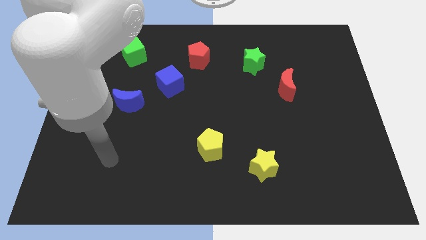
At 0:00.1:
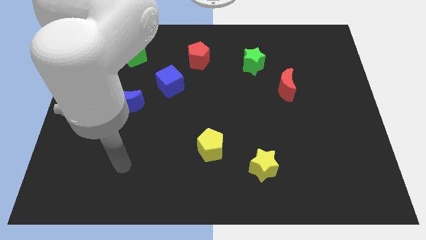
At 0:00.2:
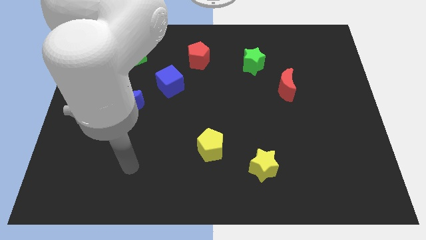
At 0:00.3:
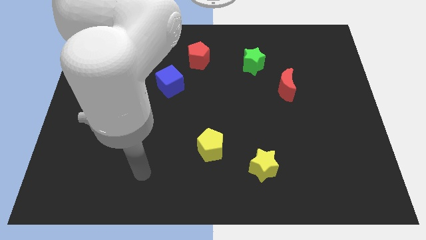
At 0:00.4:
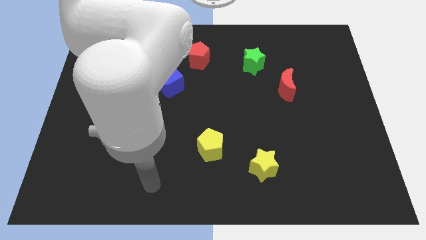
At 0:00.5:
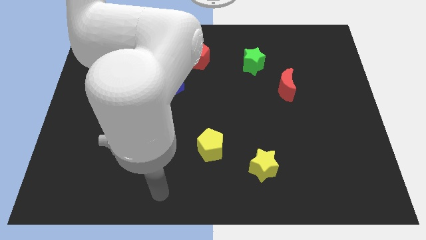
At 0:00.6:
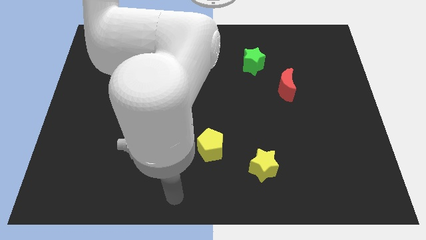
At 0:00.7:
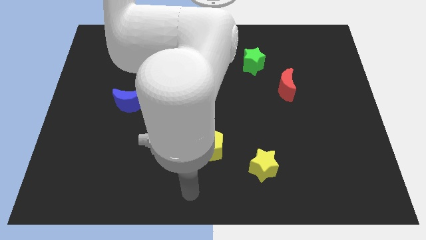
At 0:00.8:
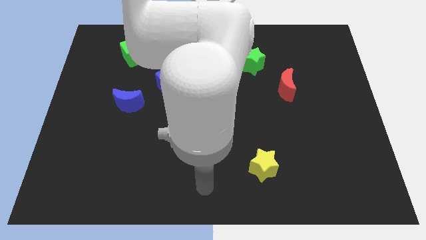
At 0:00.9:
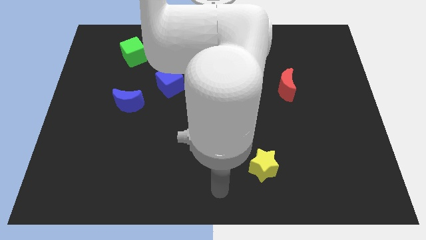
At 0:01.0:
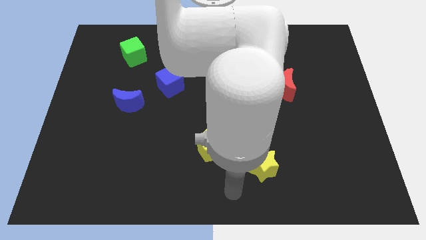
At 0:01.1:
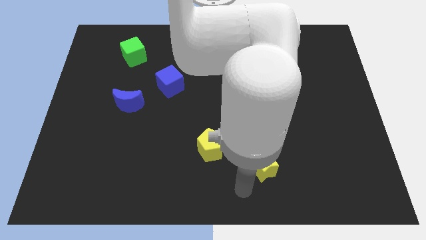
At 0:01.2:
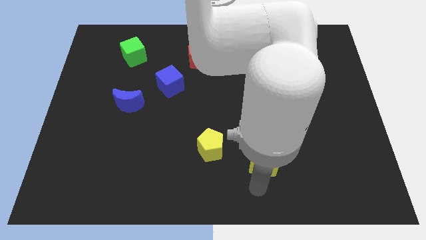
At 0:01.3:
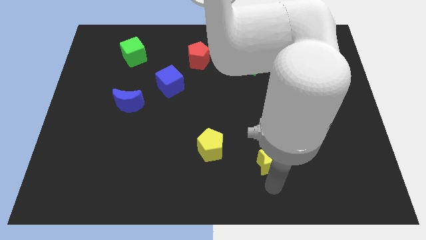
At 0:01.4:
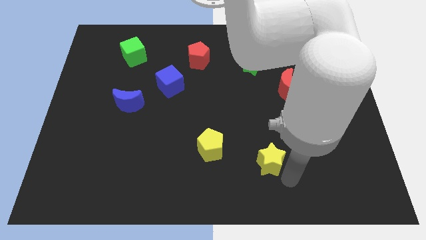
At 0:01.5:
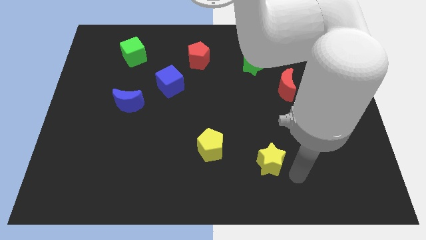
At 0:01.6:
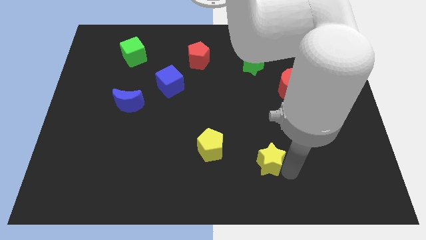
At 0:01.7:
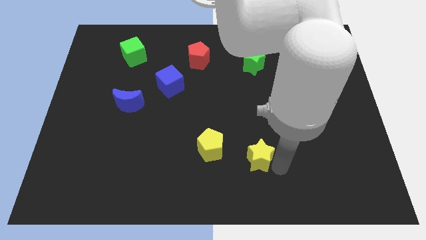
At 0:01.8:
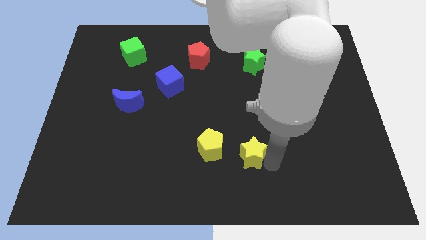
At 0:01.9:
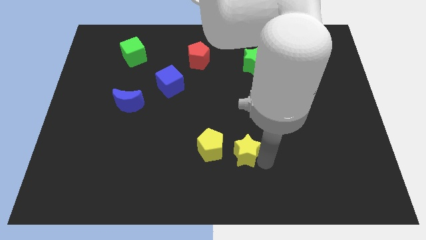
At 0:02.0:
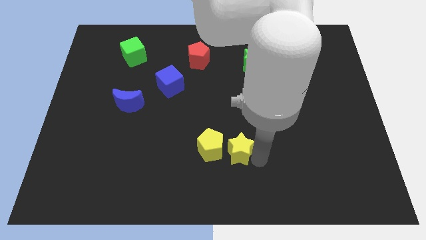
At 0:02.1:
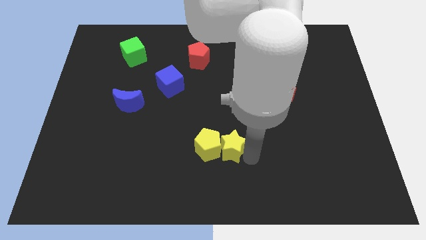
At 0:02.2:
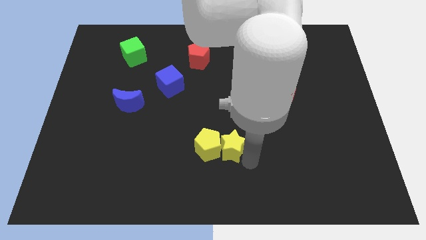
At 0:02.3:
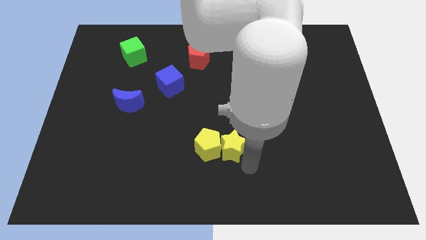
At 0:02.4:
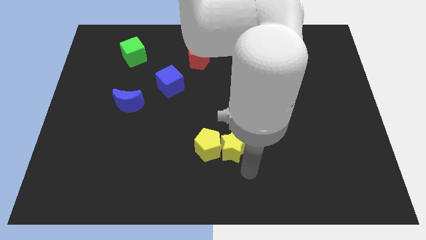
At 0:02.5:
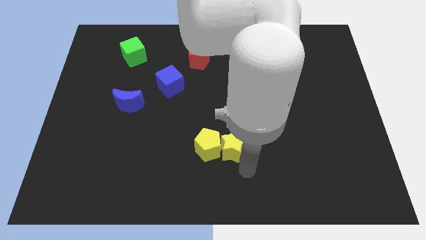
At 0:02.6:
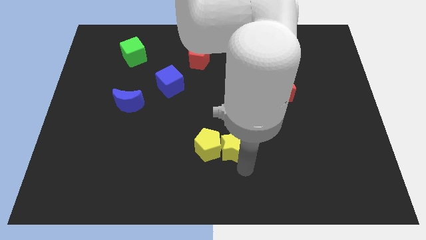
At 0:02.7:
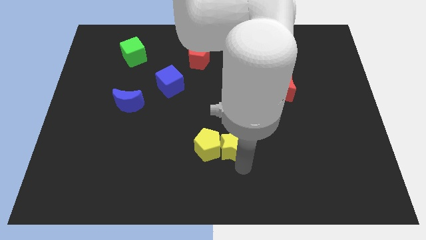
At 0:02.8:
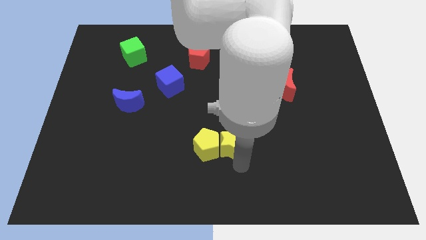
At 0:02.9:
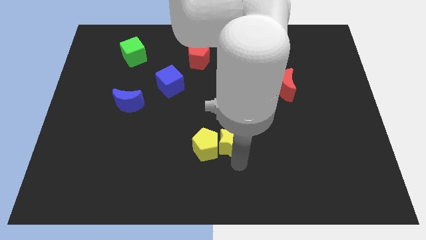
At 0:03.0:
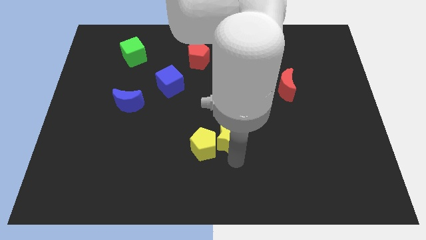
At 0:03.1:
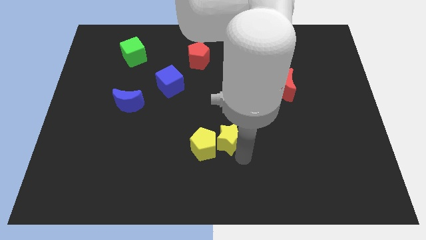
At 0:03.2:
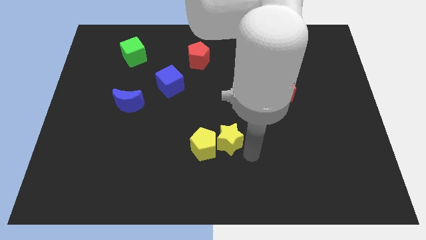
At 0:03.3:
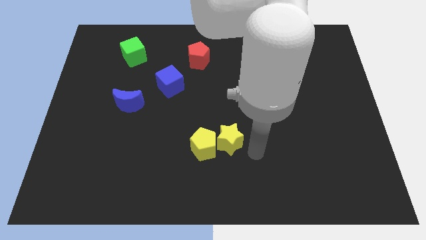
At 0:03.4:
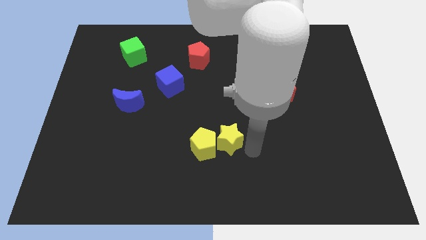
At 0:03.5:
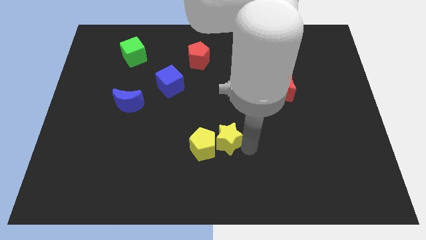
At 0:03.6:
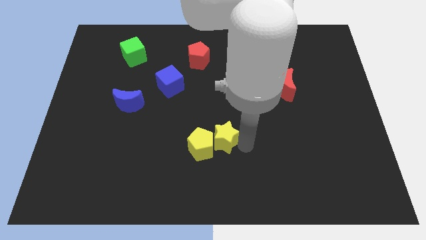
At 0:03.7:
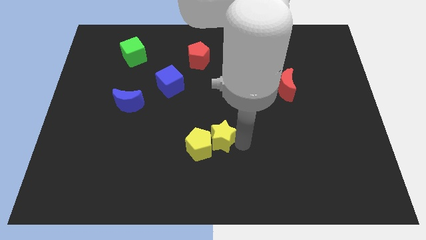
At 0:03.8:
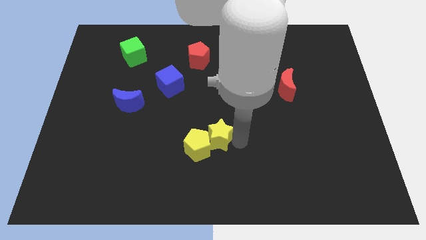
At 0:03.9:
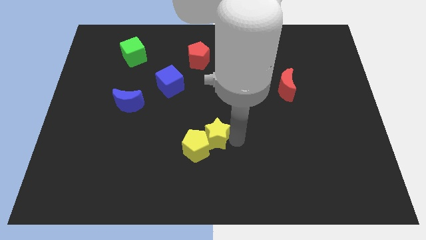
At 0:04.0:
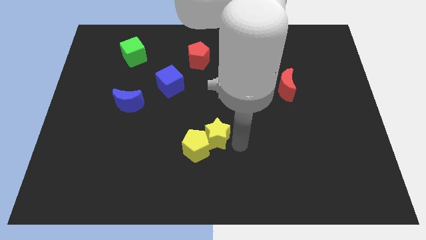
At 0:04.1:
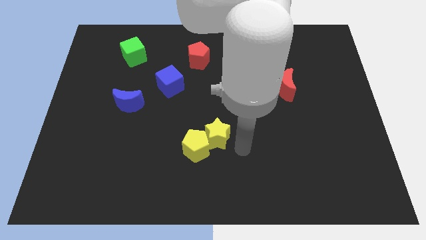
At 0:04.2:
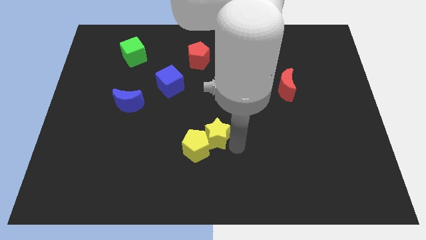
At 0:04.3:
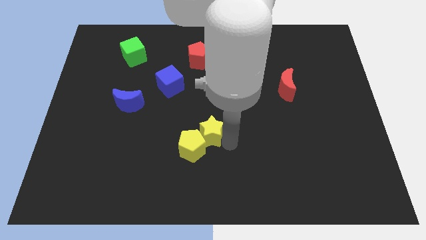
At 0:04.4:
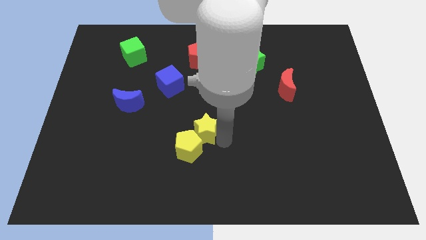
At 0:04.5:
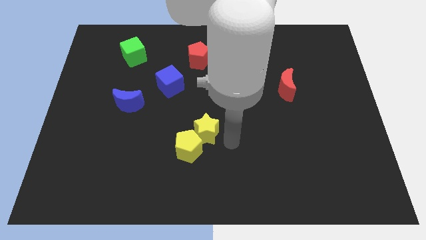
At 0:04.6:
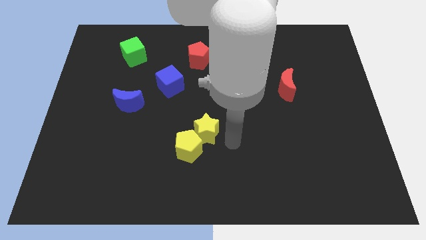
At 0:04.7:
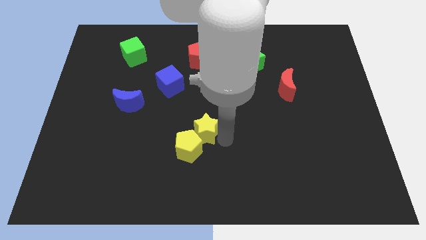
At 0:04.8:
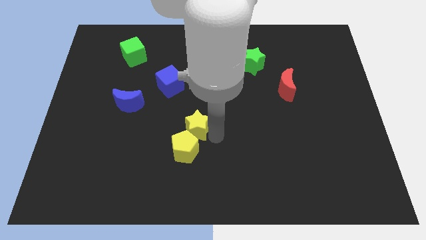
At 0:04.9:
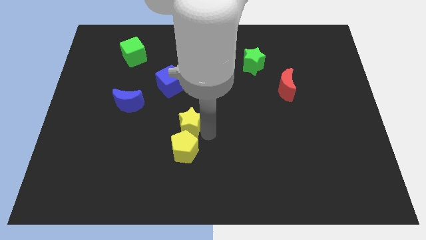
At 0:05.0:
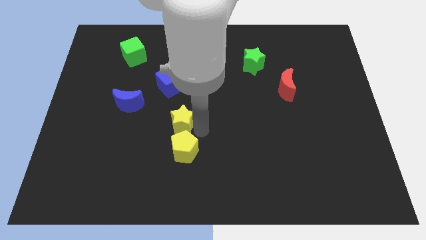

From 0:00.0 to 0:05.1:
slide the yellow star to the bottom of the blue cube

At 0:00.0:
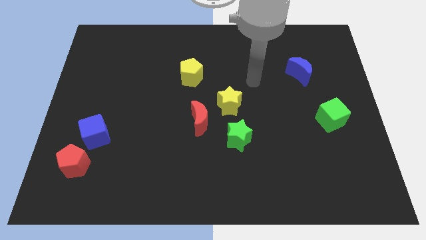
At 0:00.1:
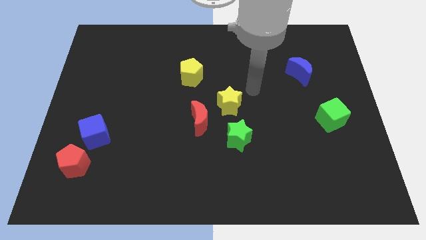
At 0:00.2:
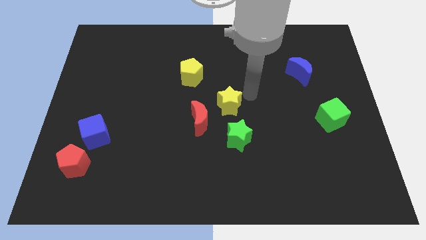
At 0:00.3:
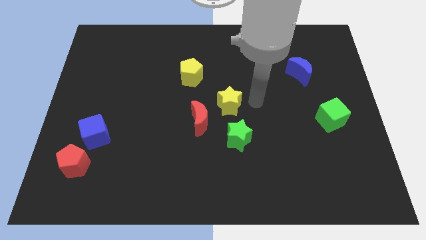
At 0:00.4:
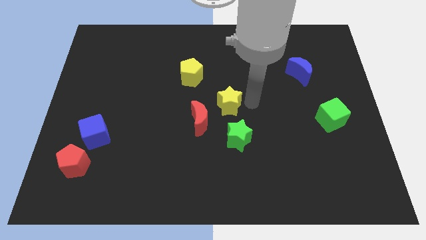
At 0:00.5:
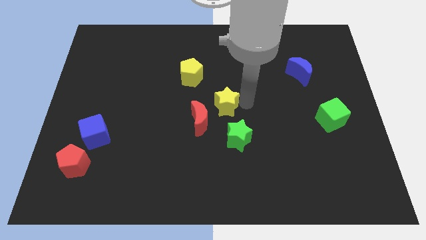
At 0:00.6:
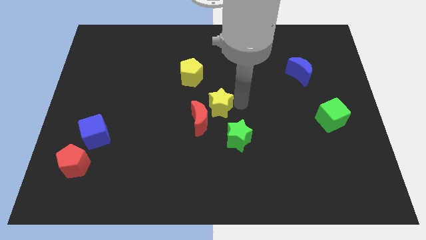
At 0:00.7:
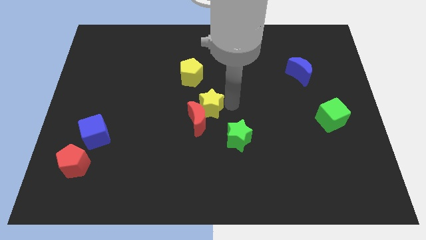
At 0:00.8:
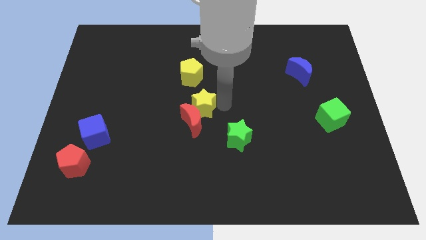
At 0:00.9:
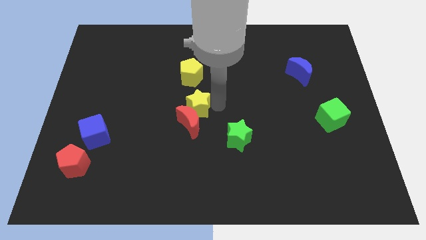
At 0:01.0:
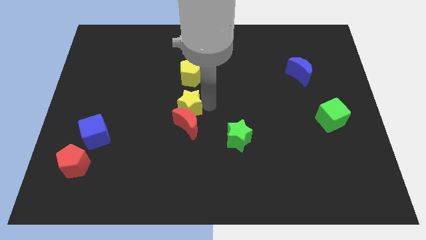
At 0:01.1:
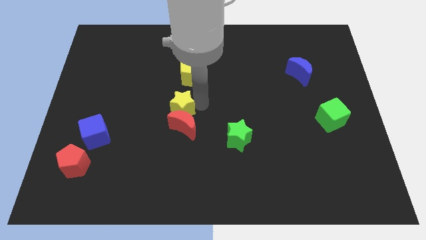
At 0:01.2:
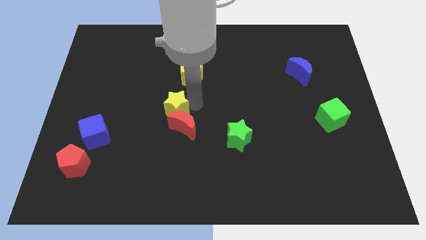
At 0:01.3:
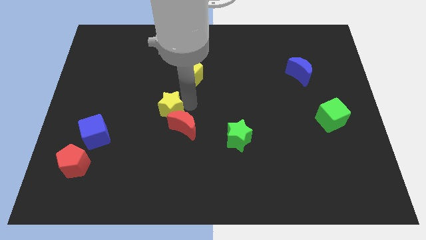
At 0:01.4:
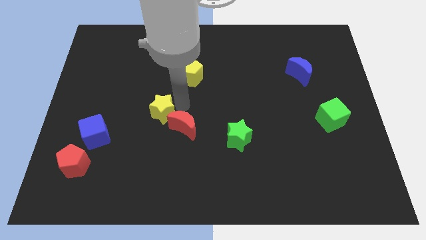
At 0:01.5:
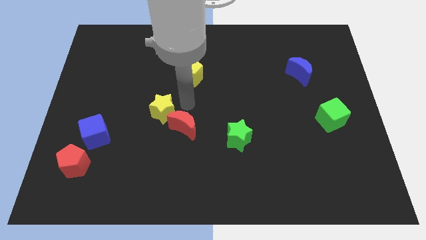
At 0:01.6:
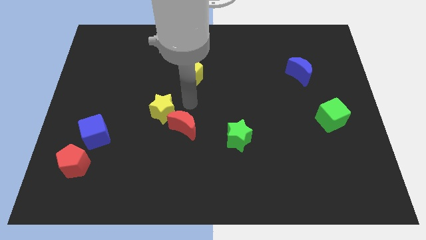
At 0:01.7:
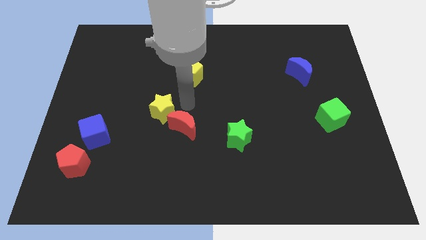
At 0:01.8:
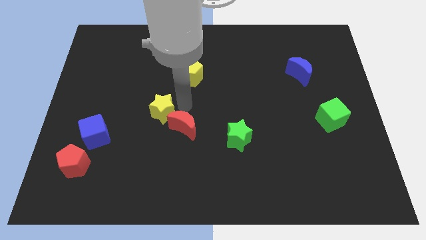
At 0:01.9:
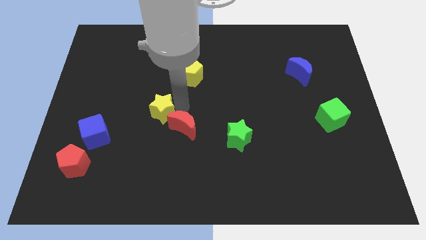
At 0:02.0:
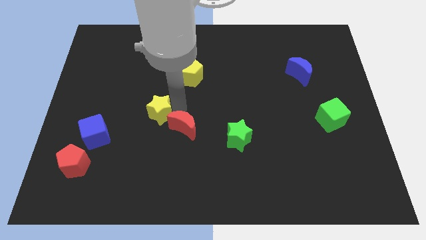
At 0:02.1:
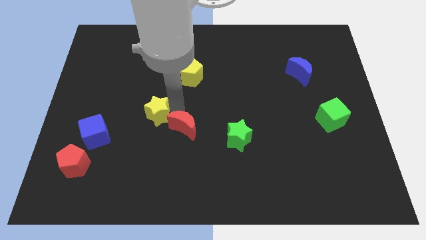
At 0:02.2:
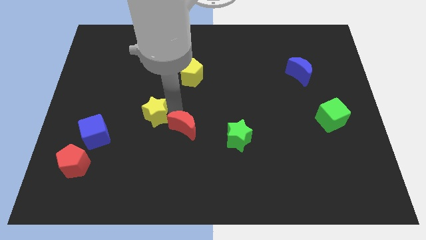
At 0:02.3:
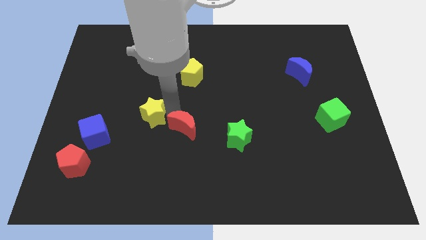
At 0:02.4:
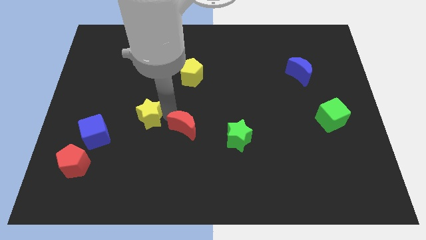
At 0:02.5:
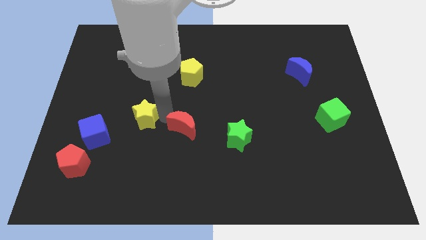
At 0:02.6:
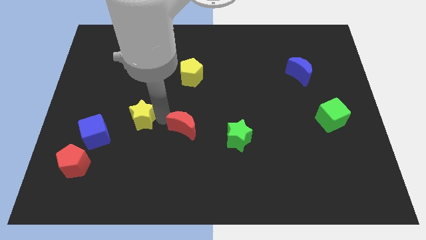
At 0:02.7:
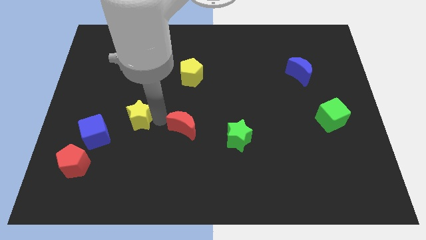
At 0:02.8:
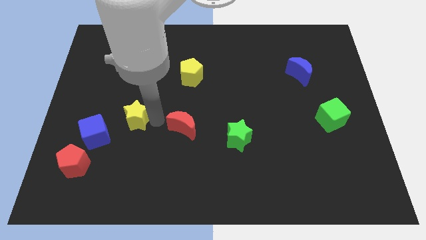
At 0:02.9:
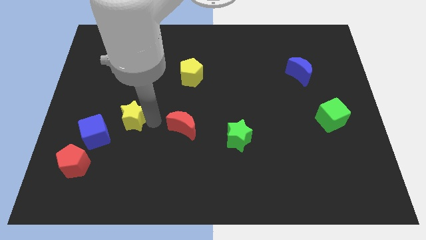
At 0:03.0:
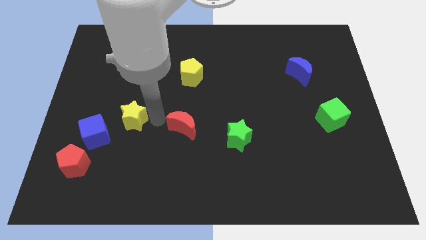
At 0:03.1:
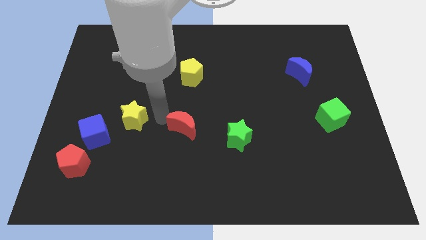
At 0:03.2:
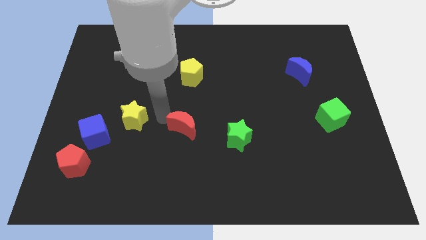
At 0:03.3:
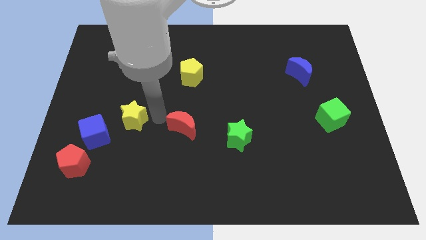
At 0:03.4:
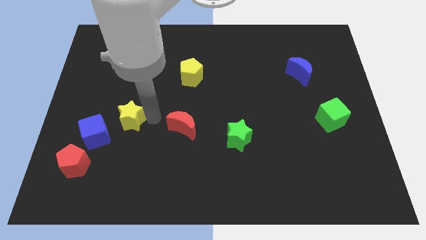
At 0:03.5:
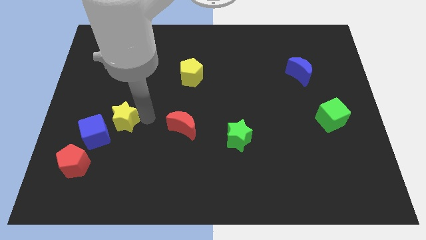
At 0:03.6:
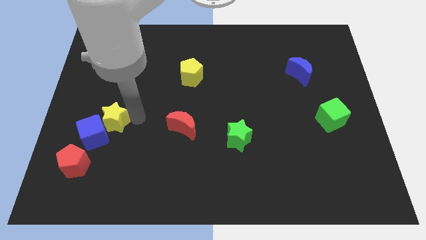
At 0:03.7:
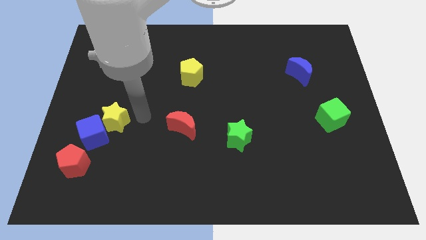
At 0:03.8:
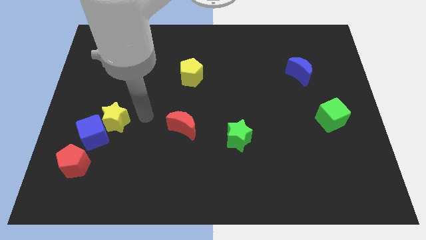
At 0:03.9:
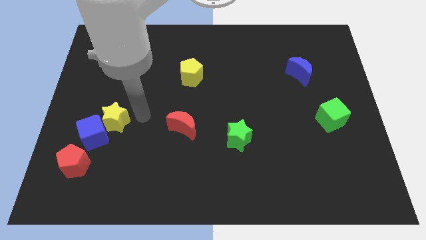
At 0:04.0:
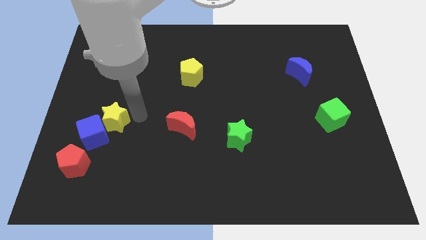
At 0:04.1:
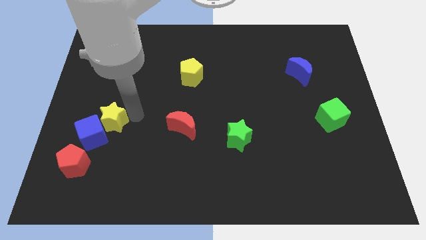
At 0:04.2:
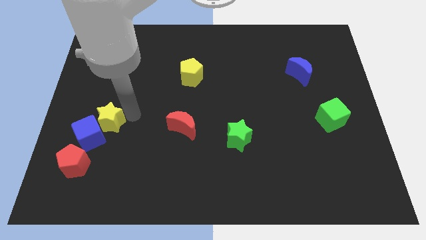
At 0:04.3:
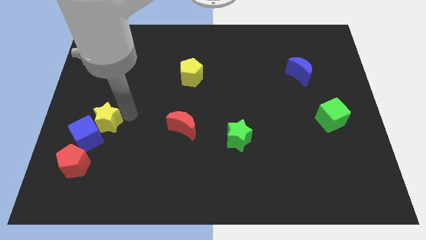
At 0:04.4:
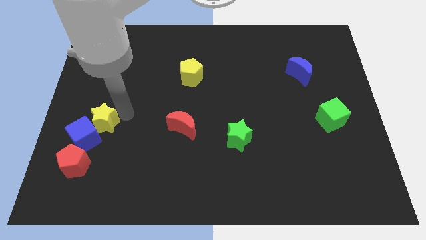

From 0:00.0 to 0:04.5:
move the yellow star to the top of the red pentagon
